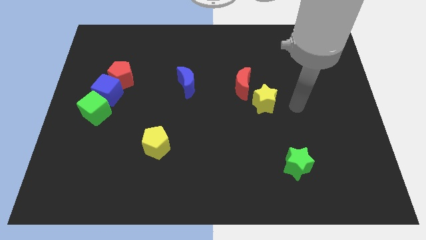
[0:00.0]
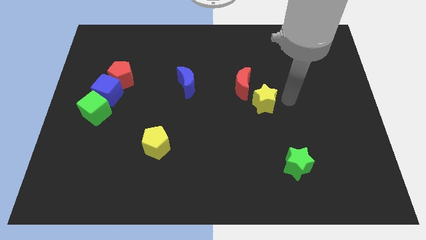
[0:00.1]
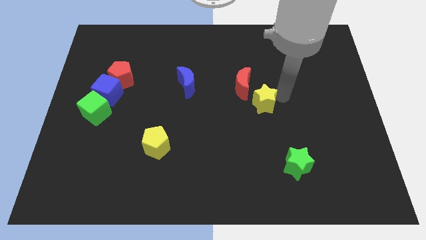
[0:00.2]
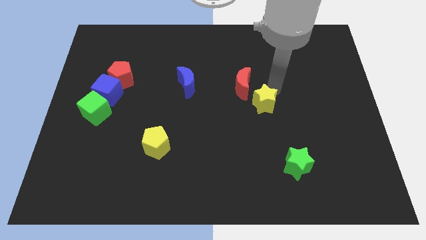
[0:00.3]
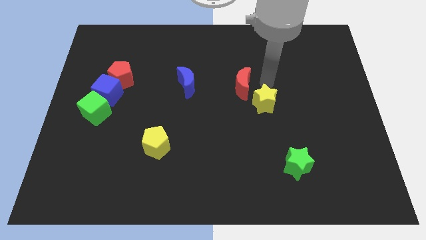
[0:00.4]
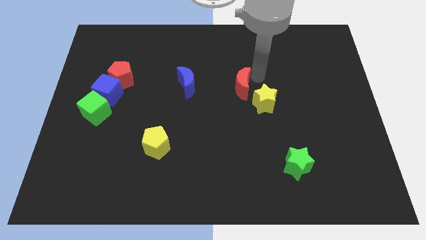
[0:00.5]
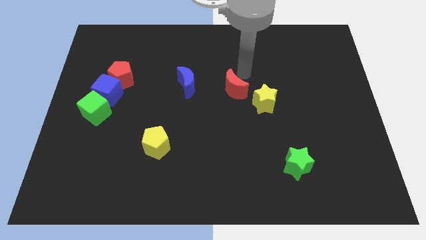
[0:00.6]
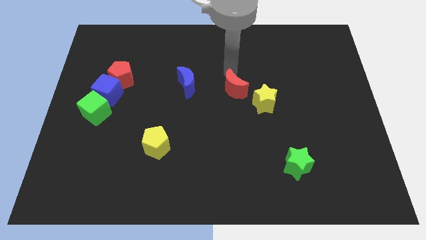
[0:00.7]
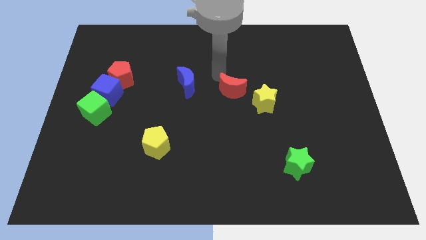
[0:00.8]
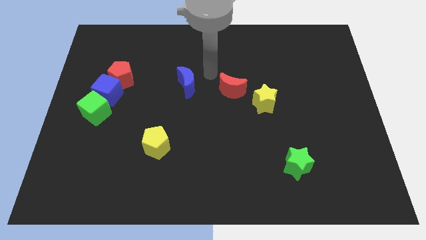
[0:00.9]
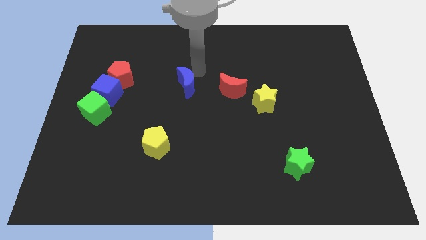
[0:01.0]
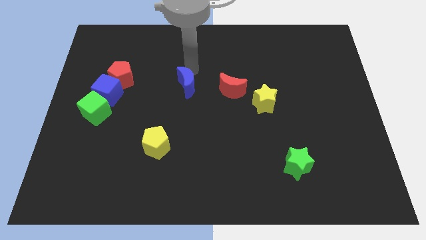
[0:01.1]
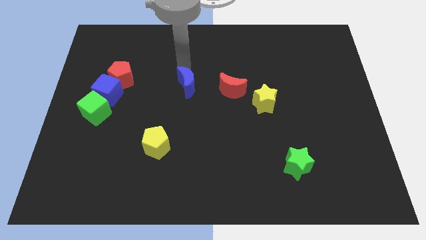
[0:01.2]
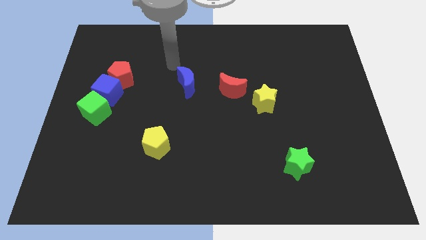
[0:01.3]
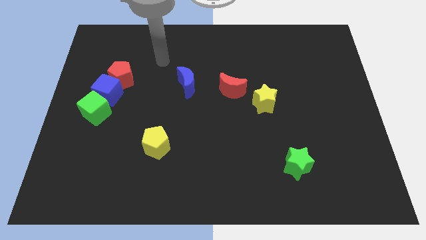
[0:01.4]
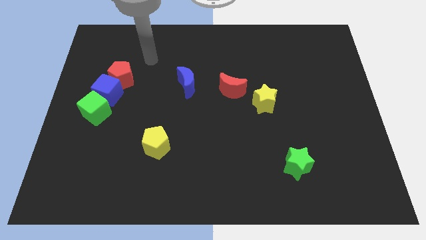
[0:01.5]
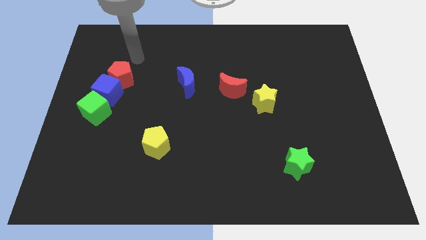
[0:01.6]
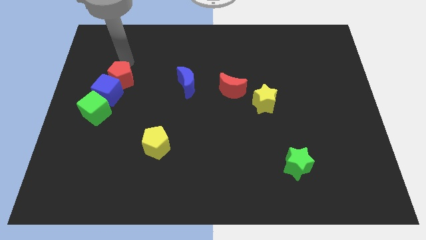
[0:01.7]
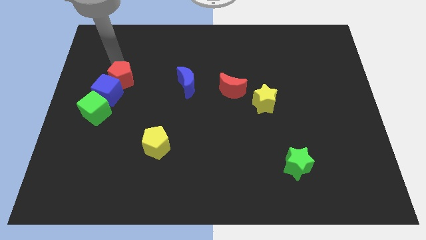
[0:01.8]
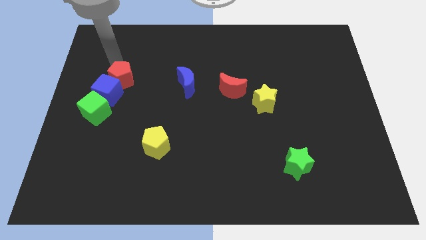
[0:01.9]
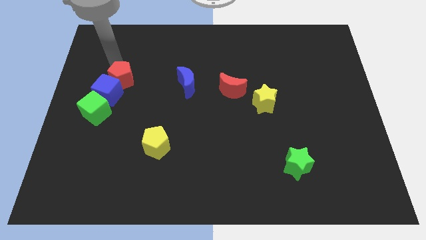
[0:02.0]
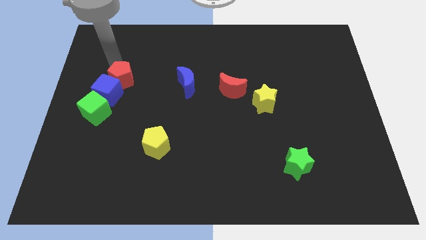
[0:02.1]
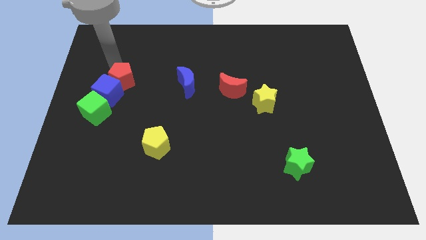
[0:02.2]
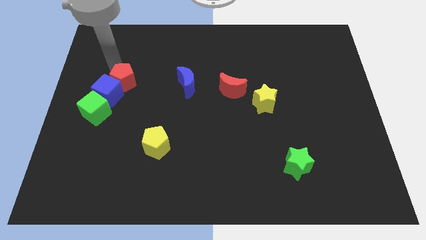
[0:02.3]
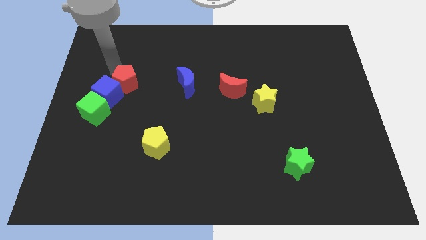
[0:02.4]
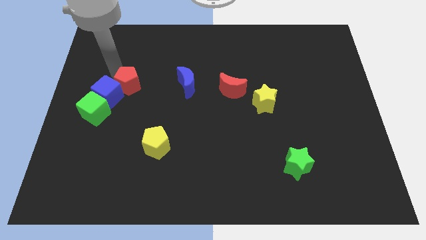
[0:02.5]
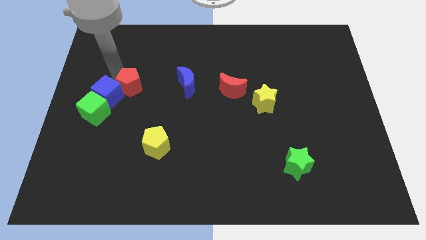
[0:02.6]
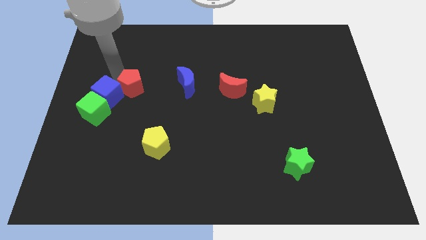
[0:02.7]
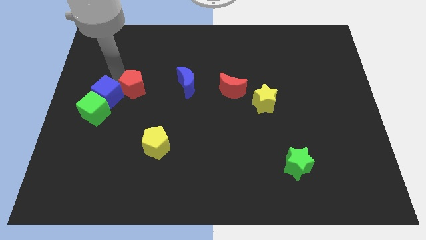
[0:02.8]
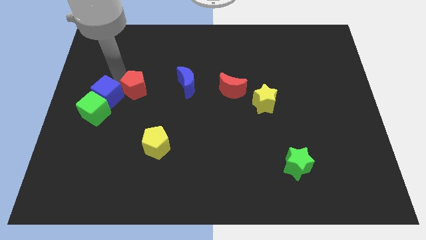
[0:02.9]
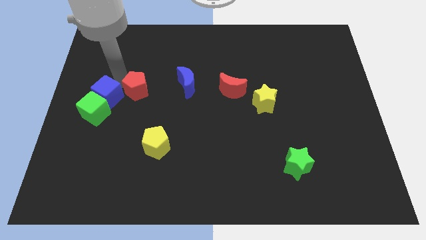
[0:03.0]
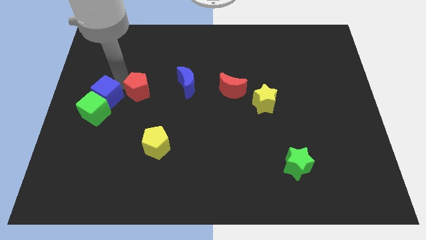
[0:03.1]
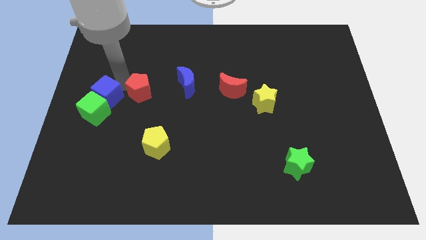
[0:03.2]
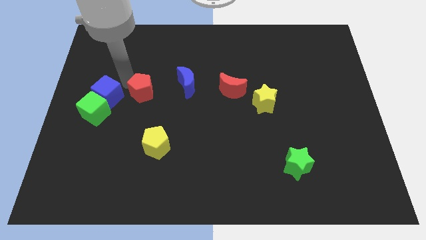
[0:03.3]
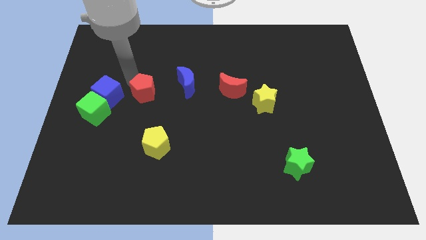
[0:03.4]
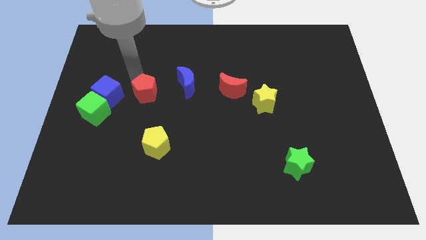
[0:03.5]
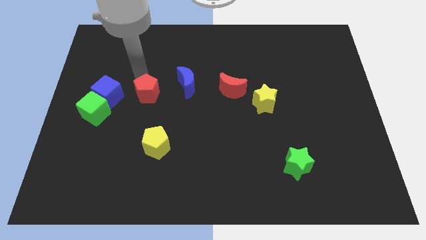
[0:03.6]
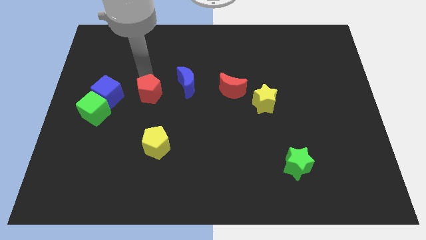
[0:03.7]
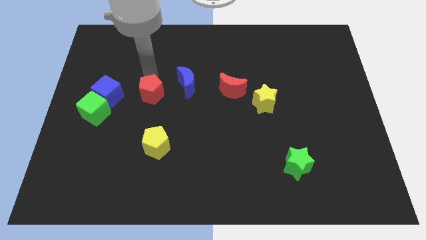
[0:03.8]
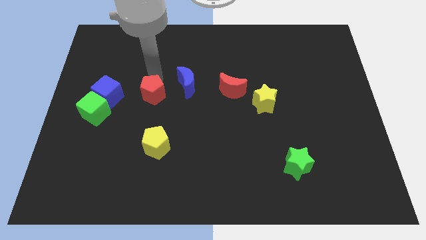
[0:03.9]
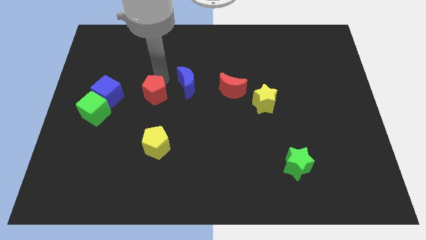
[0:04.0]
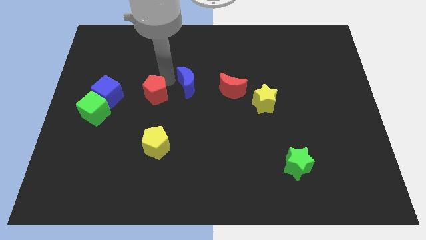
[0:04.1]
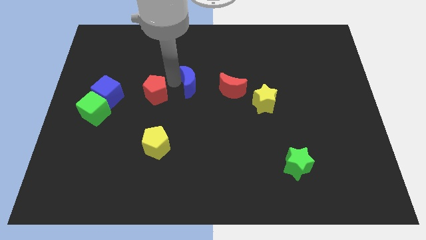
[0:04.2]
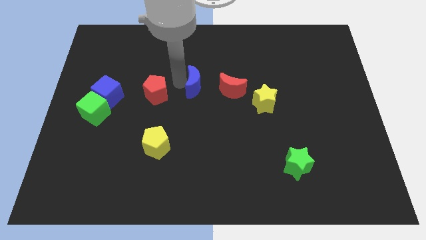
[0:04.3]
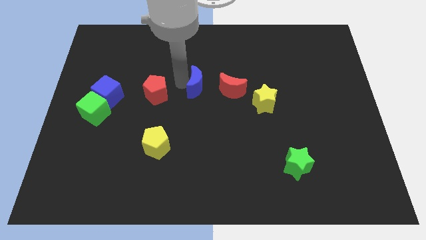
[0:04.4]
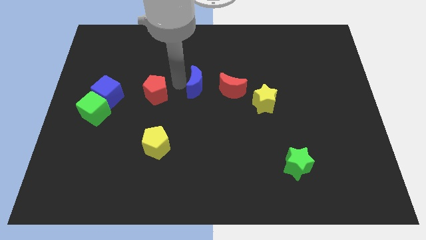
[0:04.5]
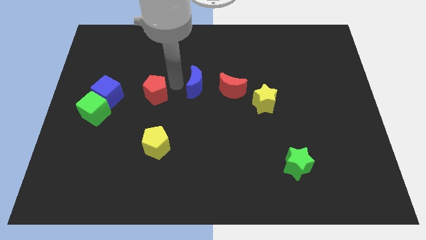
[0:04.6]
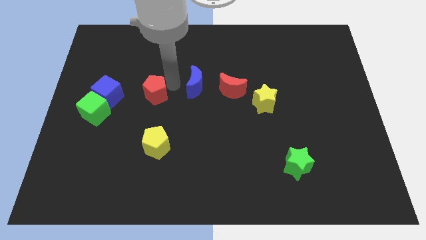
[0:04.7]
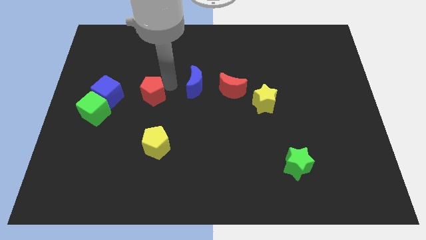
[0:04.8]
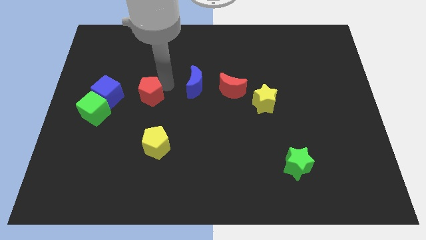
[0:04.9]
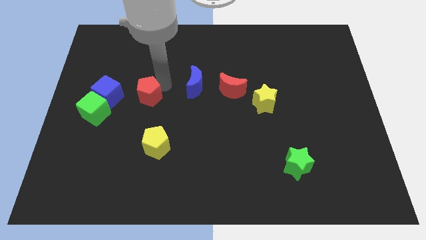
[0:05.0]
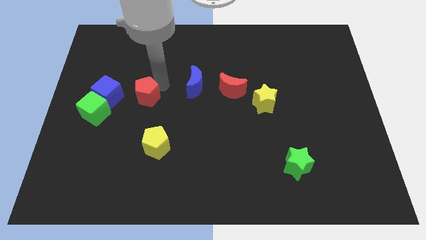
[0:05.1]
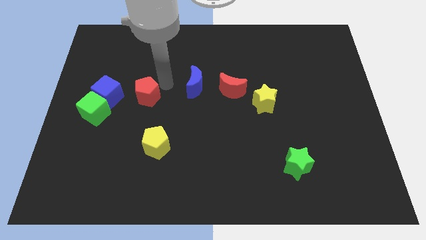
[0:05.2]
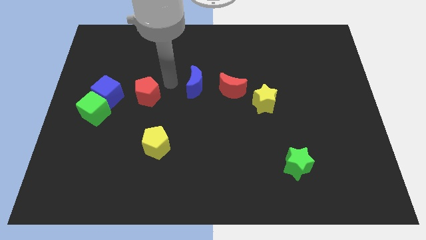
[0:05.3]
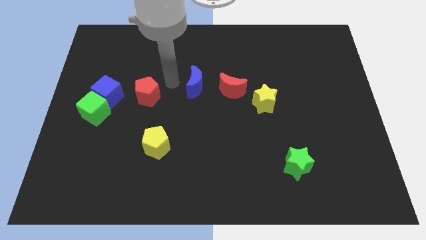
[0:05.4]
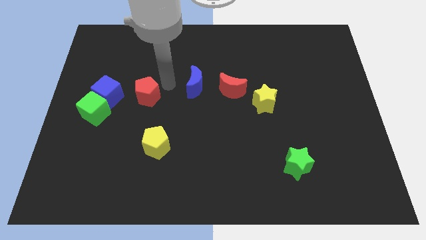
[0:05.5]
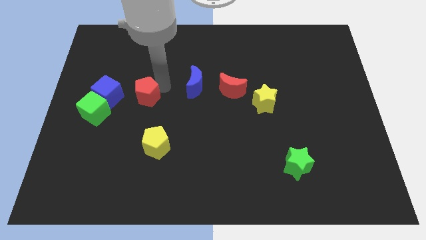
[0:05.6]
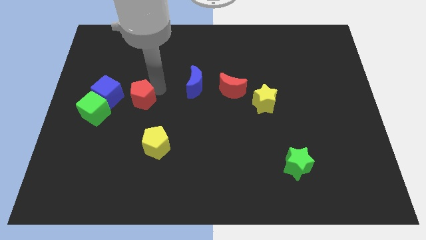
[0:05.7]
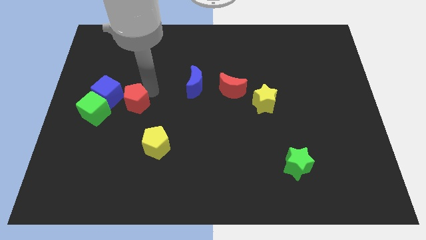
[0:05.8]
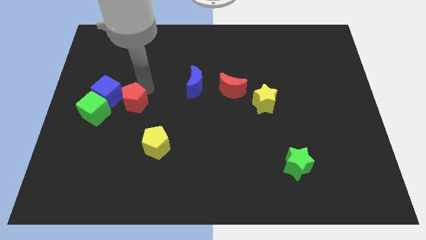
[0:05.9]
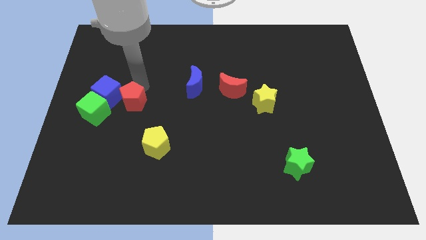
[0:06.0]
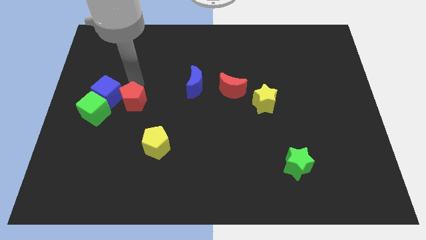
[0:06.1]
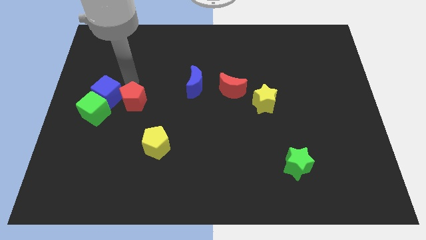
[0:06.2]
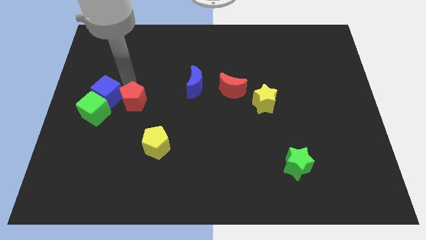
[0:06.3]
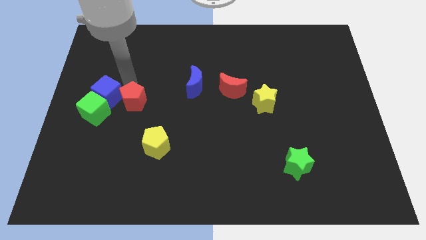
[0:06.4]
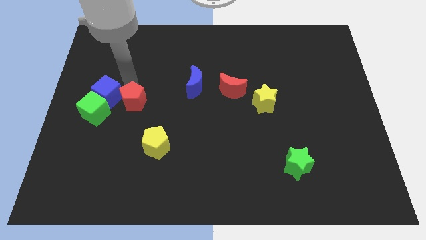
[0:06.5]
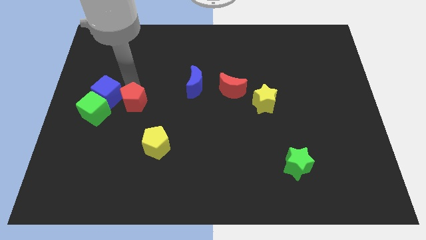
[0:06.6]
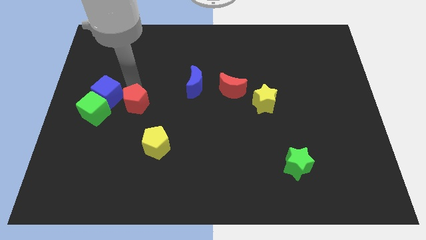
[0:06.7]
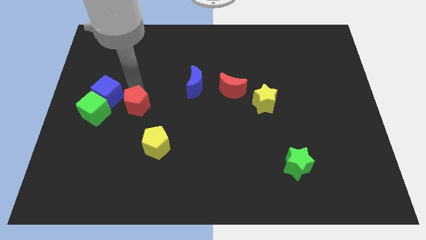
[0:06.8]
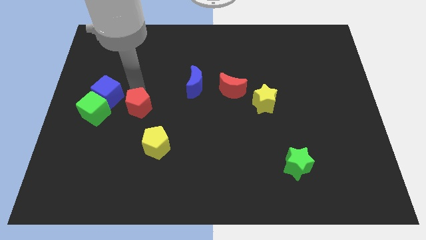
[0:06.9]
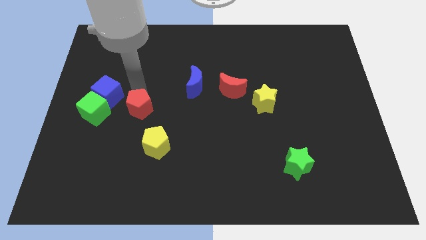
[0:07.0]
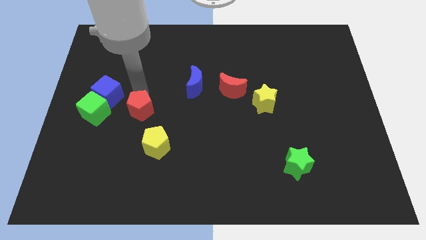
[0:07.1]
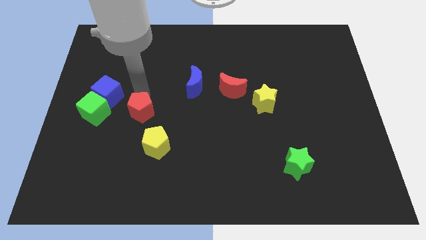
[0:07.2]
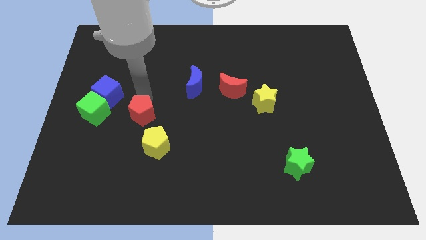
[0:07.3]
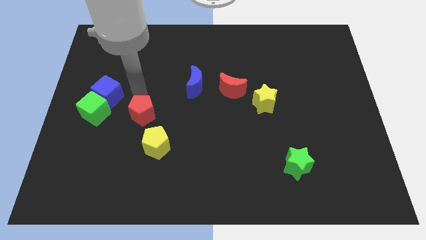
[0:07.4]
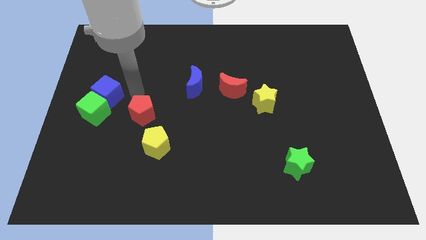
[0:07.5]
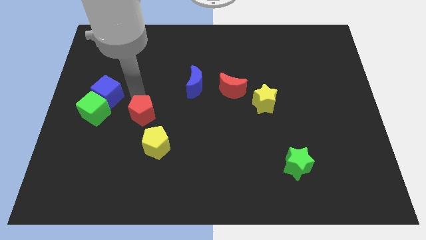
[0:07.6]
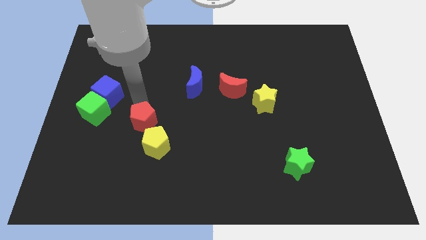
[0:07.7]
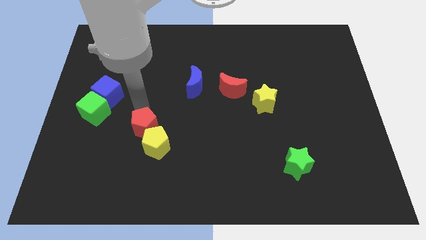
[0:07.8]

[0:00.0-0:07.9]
move the red pentagon next to the yellow pentagon
